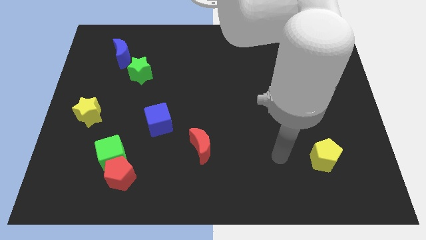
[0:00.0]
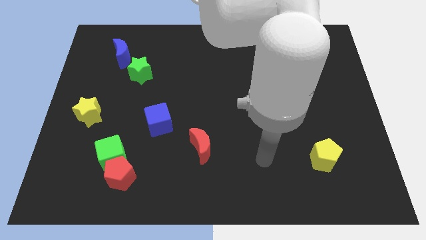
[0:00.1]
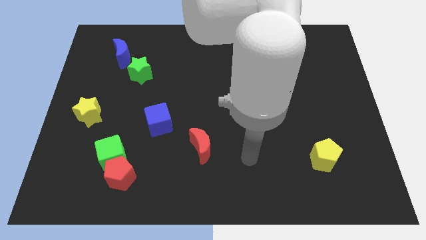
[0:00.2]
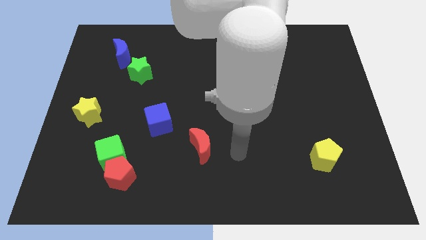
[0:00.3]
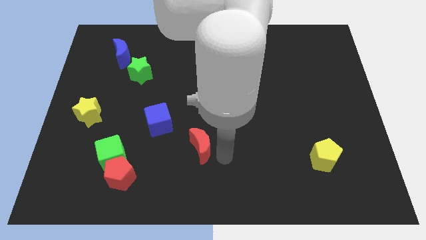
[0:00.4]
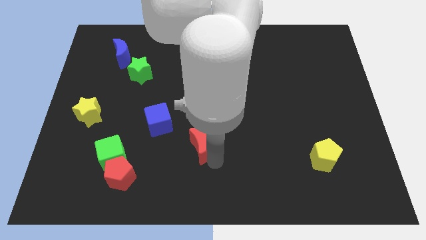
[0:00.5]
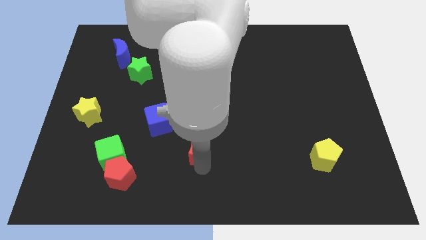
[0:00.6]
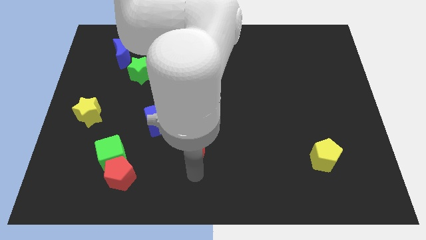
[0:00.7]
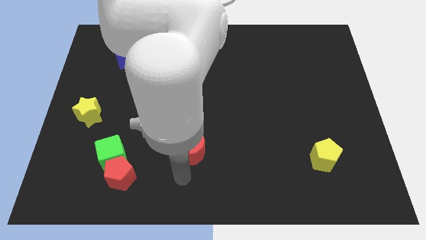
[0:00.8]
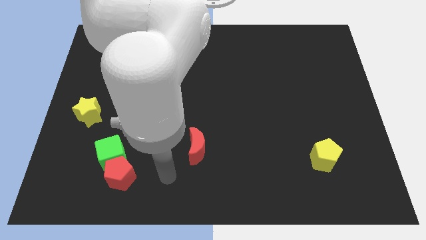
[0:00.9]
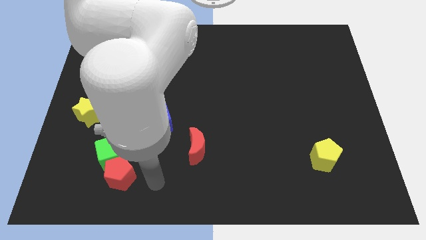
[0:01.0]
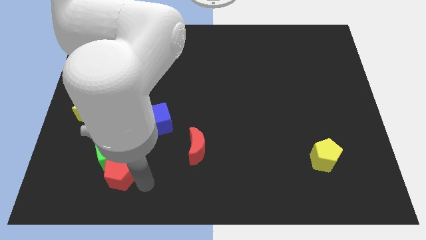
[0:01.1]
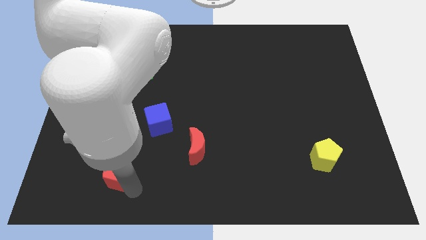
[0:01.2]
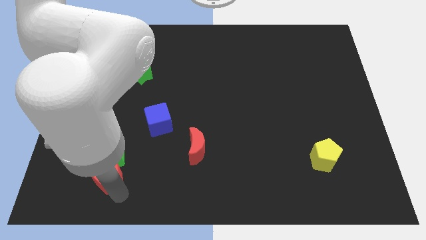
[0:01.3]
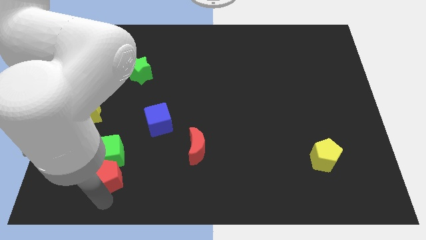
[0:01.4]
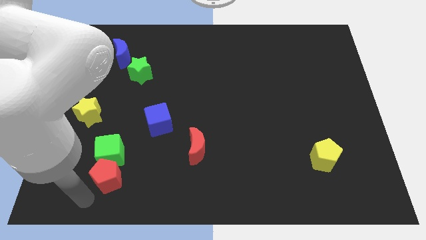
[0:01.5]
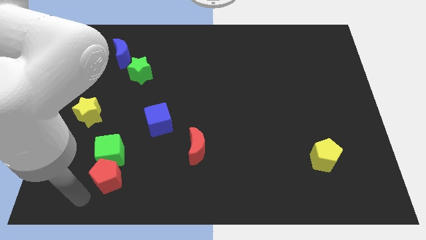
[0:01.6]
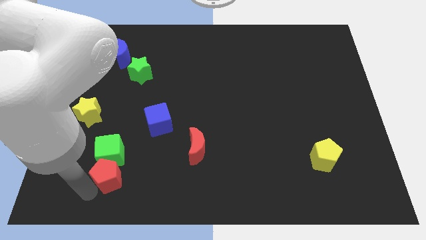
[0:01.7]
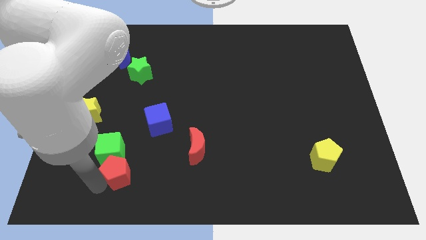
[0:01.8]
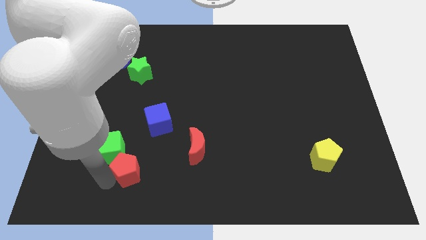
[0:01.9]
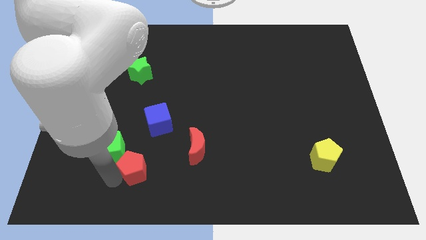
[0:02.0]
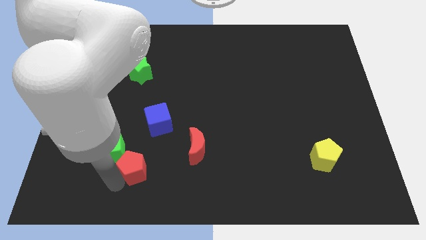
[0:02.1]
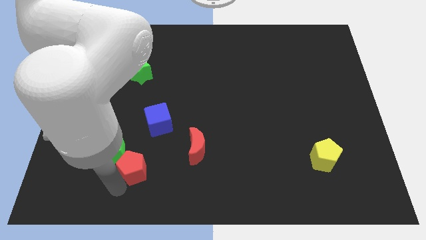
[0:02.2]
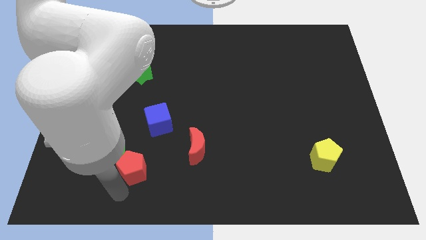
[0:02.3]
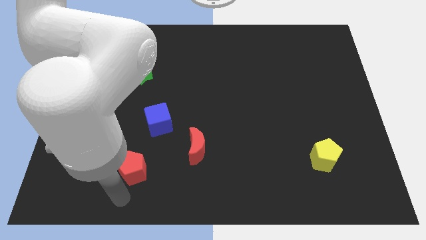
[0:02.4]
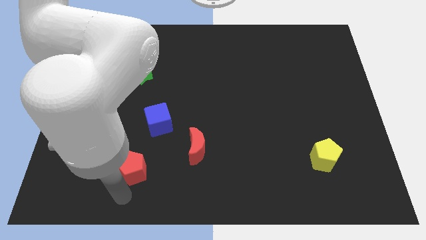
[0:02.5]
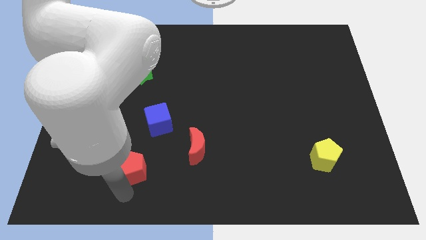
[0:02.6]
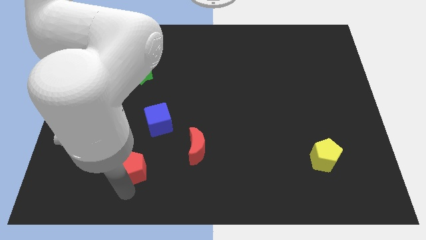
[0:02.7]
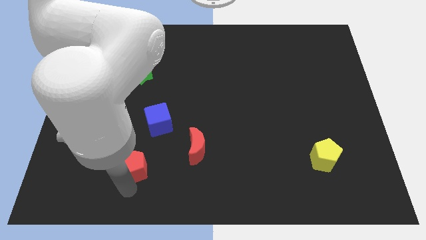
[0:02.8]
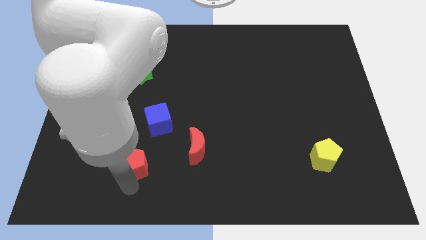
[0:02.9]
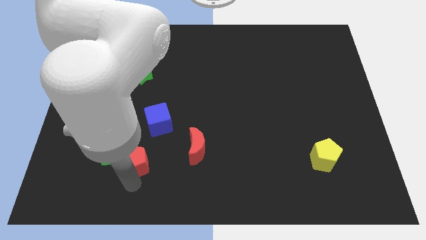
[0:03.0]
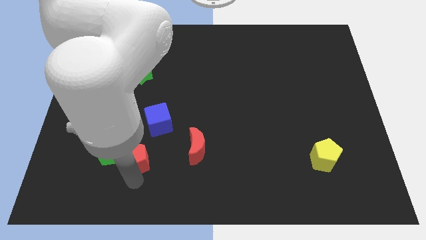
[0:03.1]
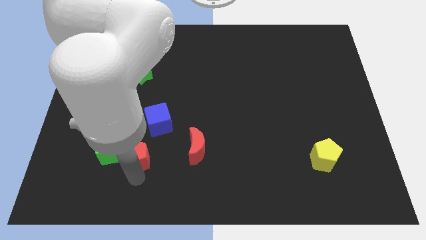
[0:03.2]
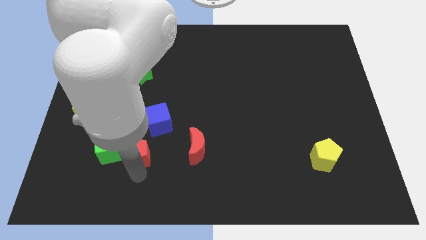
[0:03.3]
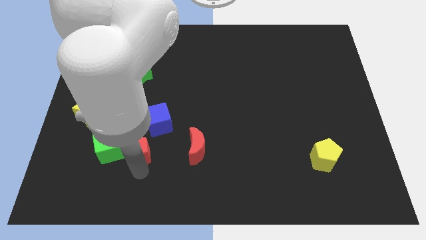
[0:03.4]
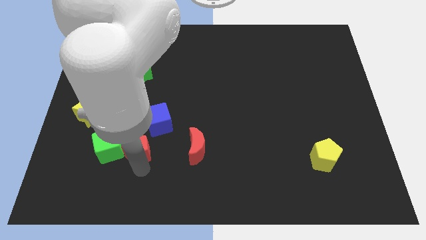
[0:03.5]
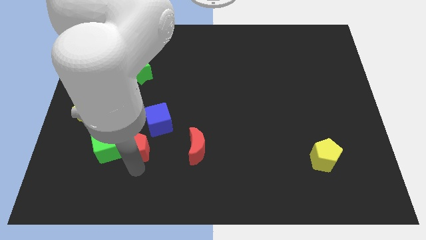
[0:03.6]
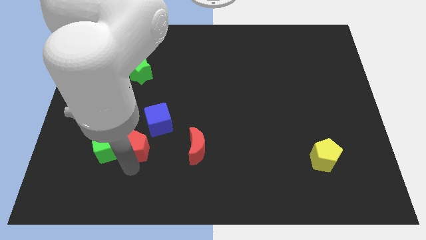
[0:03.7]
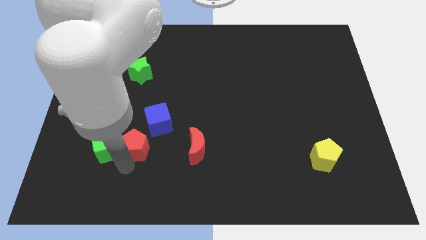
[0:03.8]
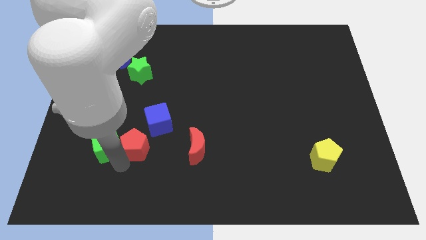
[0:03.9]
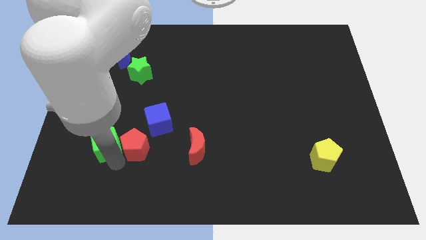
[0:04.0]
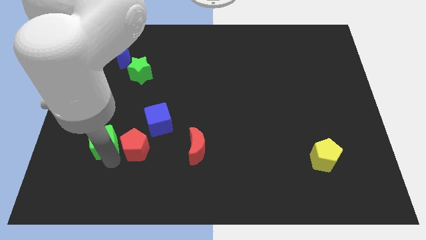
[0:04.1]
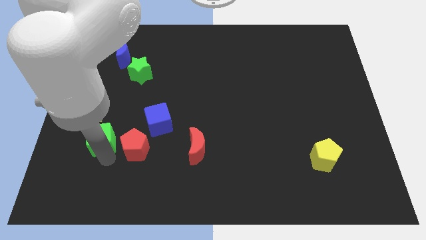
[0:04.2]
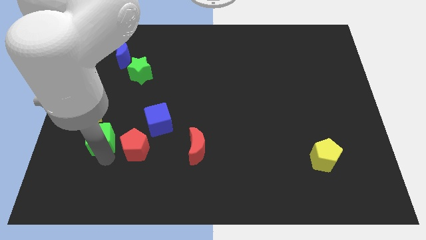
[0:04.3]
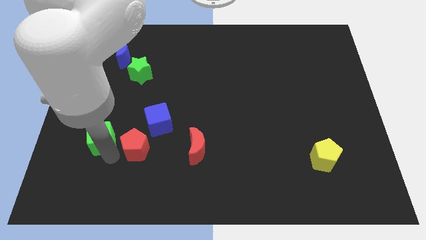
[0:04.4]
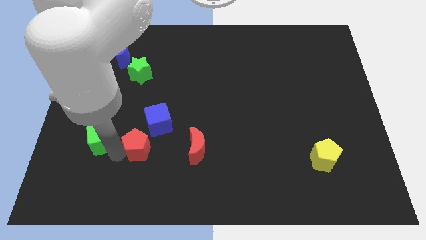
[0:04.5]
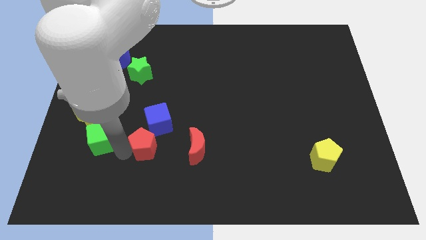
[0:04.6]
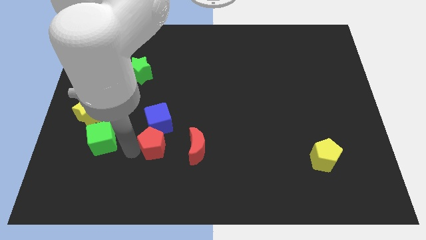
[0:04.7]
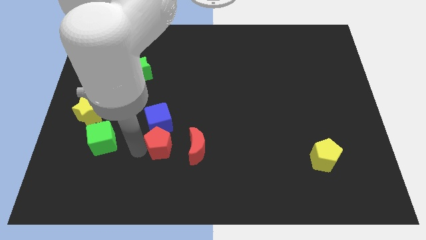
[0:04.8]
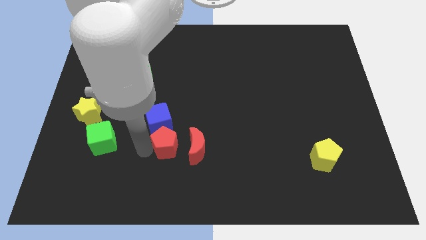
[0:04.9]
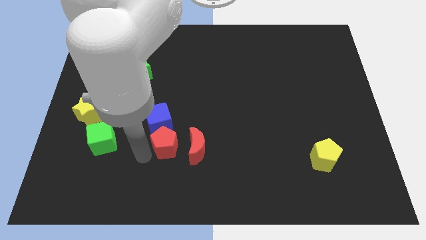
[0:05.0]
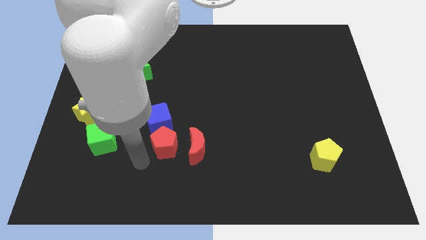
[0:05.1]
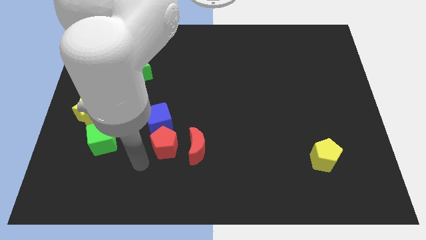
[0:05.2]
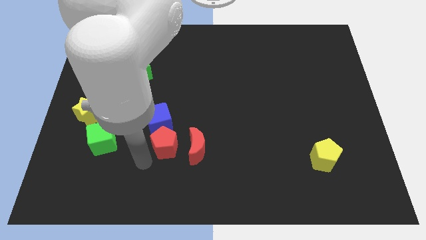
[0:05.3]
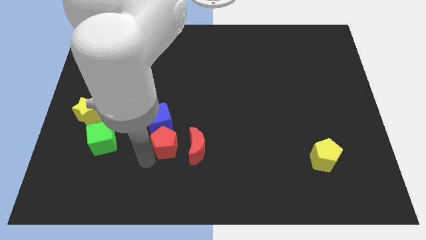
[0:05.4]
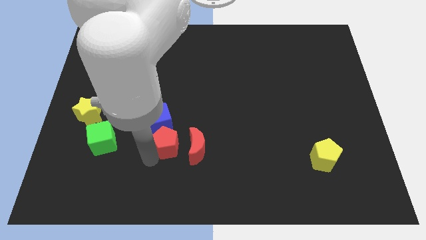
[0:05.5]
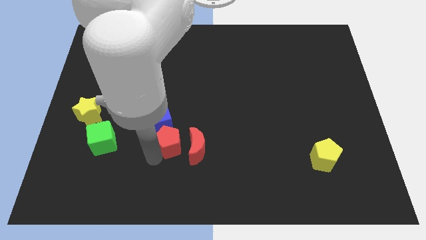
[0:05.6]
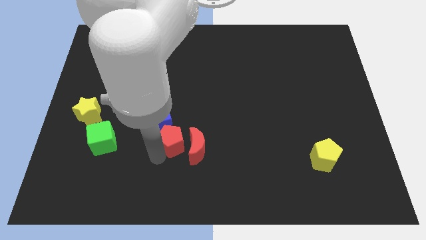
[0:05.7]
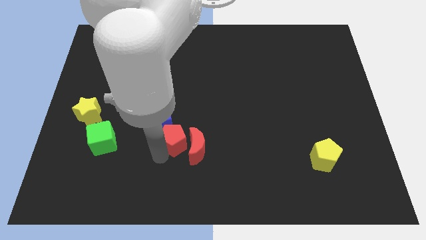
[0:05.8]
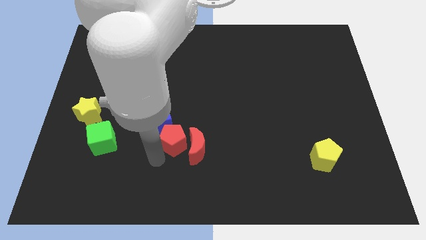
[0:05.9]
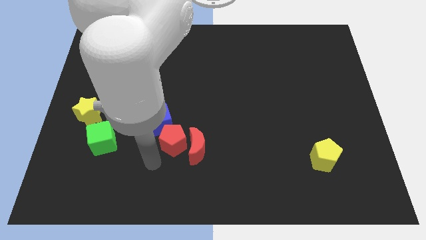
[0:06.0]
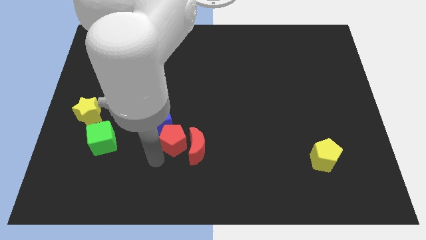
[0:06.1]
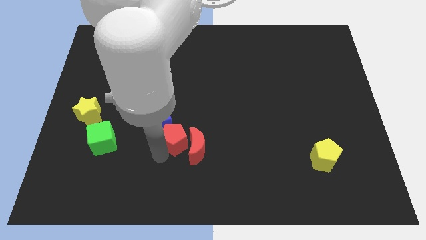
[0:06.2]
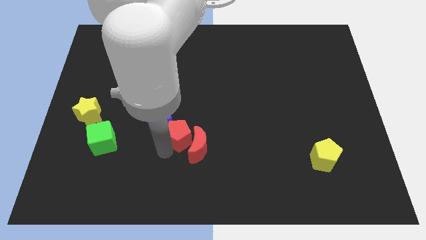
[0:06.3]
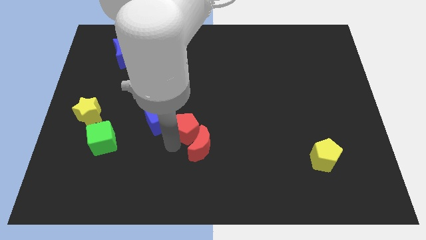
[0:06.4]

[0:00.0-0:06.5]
push the red pentagon to the top side of the red moon
